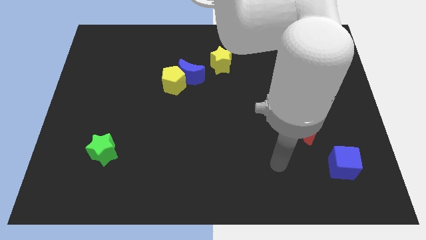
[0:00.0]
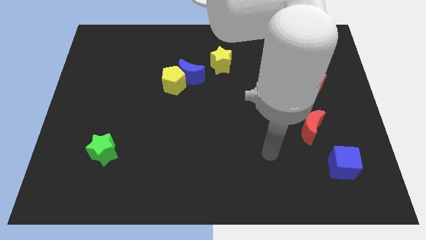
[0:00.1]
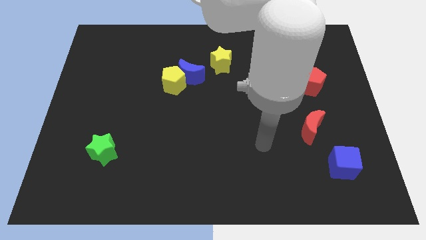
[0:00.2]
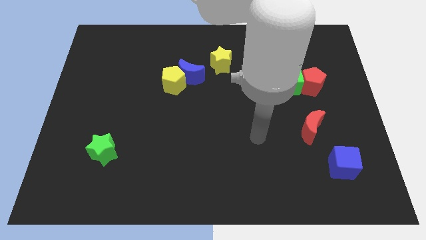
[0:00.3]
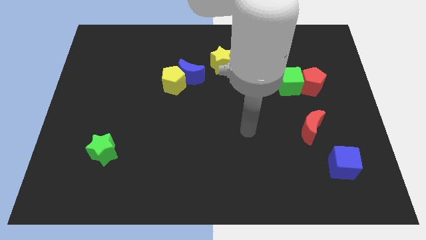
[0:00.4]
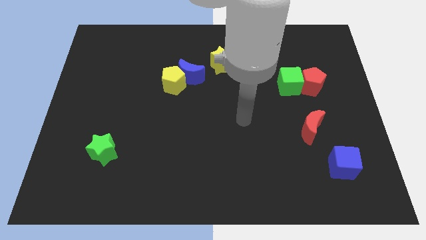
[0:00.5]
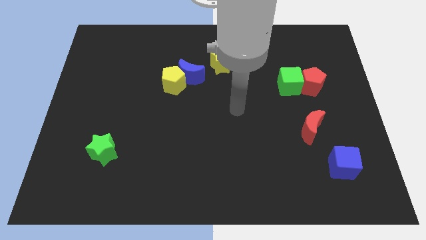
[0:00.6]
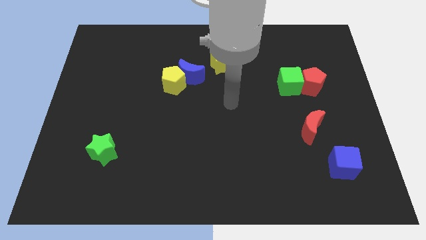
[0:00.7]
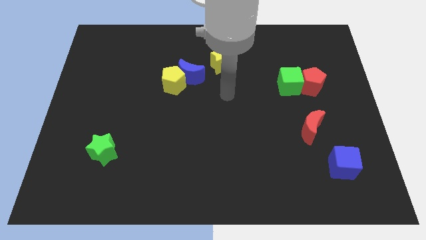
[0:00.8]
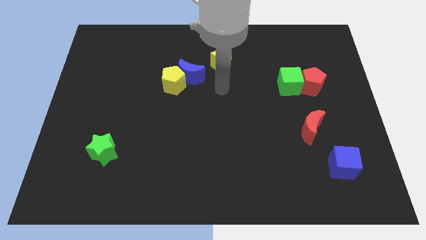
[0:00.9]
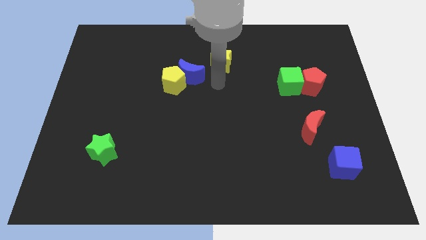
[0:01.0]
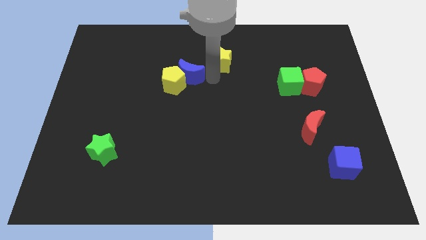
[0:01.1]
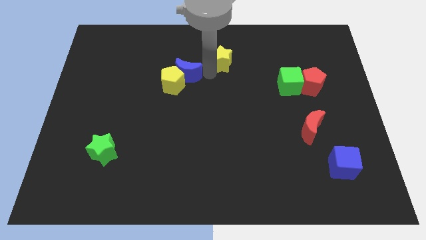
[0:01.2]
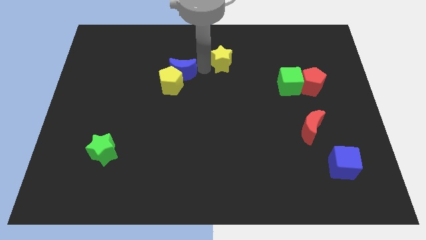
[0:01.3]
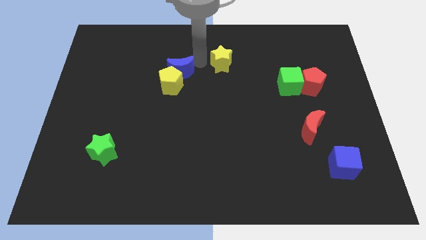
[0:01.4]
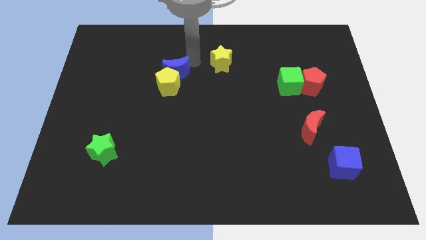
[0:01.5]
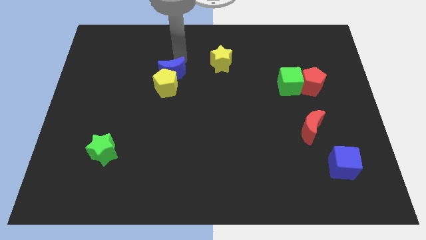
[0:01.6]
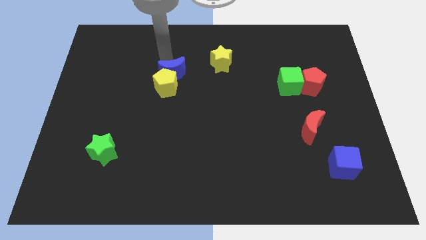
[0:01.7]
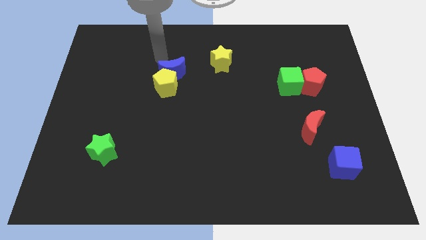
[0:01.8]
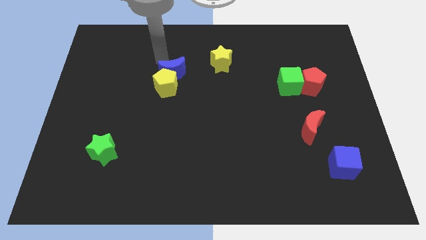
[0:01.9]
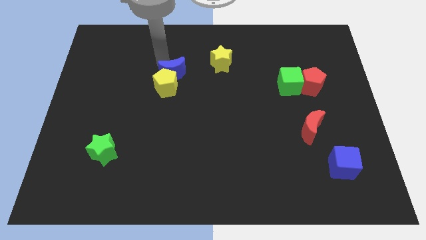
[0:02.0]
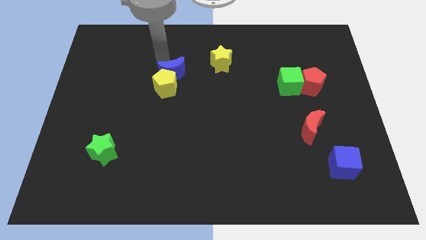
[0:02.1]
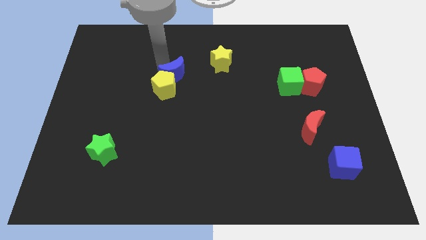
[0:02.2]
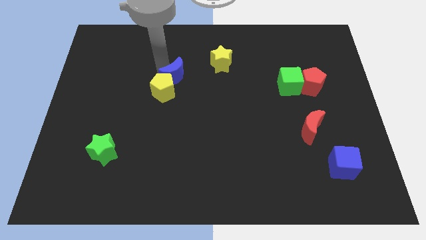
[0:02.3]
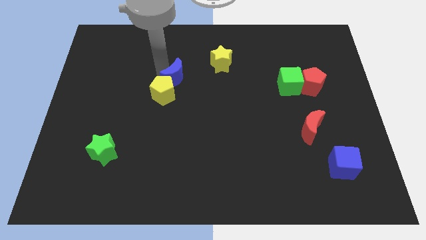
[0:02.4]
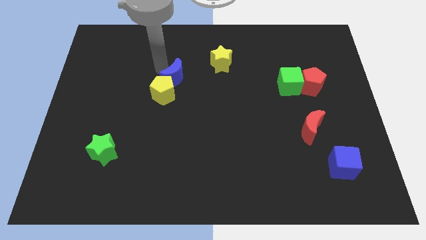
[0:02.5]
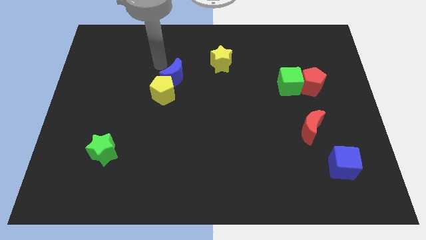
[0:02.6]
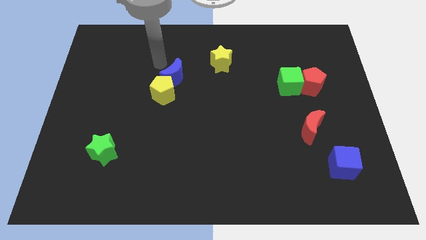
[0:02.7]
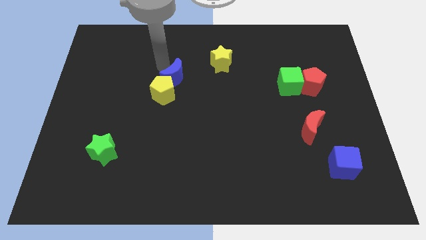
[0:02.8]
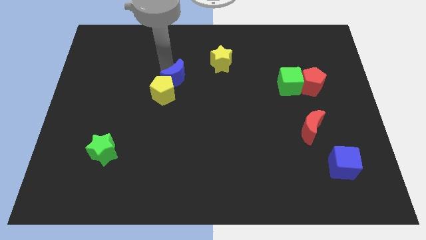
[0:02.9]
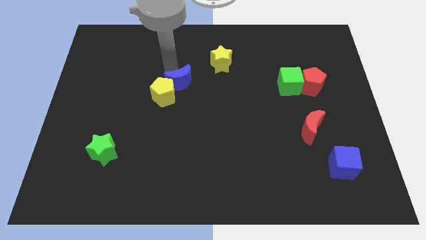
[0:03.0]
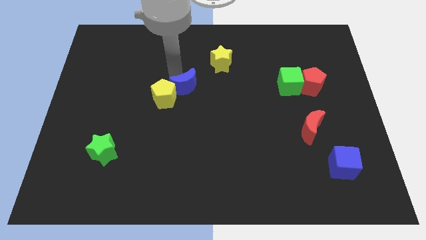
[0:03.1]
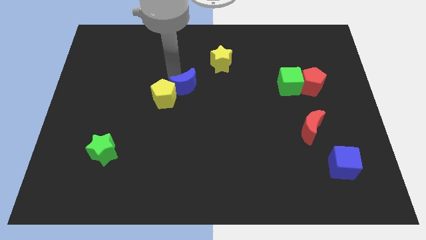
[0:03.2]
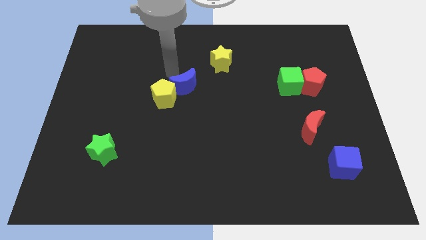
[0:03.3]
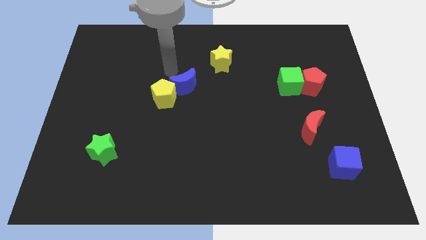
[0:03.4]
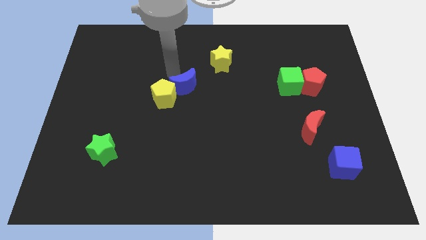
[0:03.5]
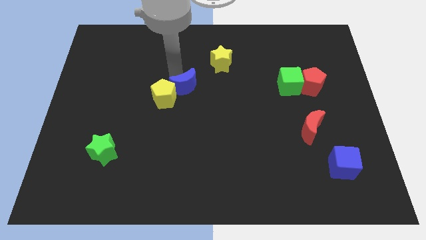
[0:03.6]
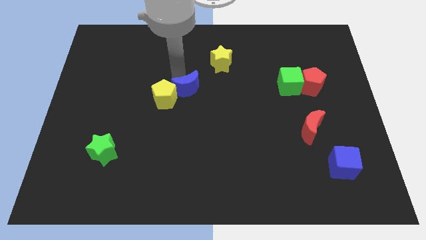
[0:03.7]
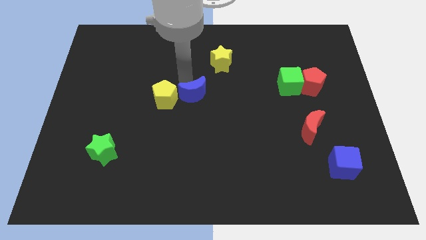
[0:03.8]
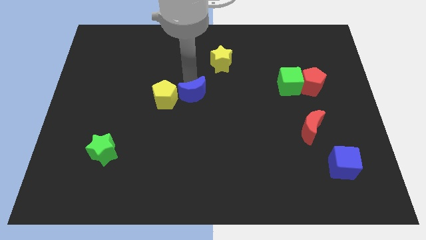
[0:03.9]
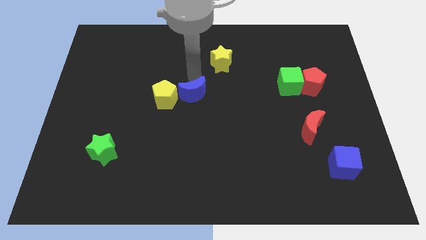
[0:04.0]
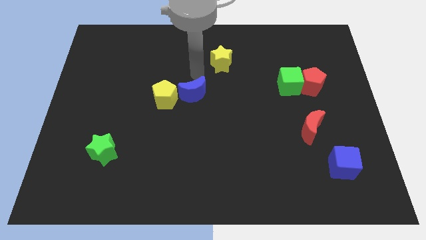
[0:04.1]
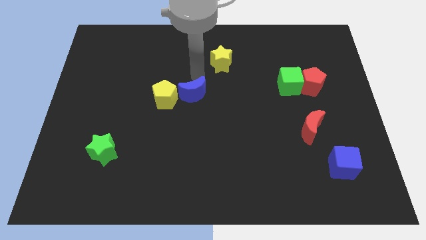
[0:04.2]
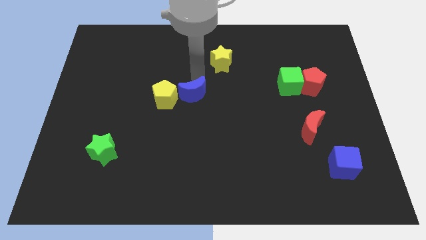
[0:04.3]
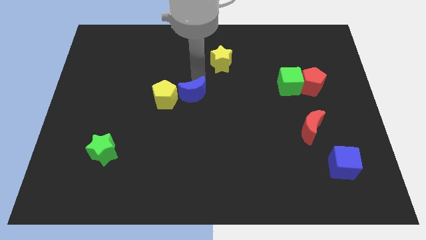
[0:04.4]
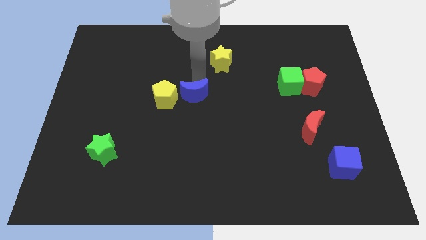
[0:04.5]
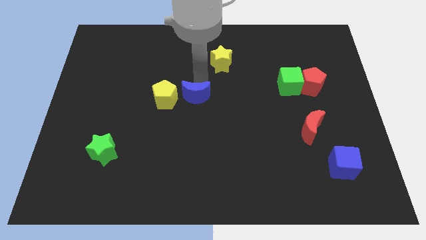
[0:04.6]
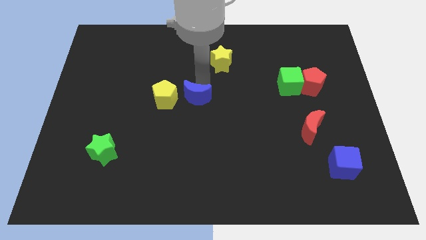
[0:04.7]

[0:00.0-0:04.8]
slide the blue moon down a little bit

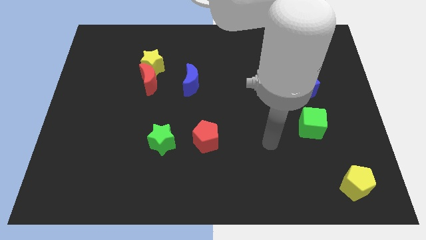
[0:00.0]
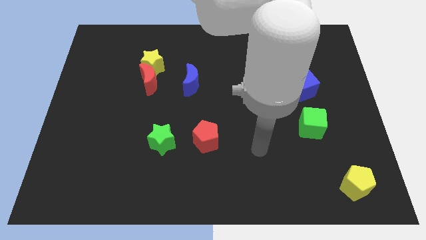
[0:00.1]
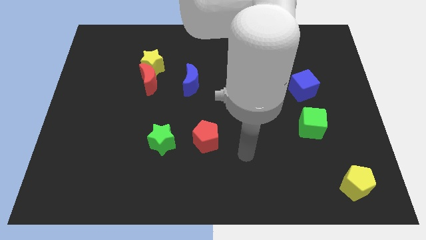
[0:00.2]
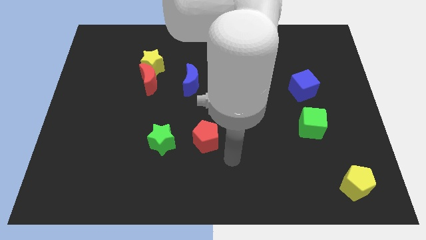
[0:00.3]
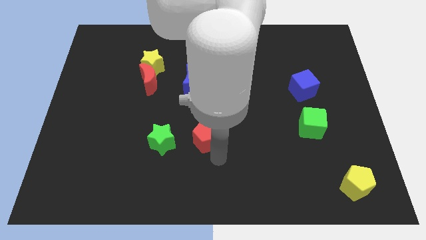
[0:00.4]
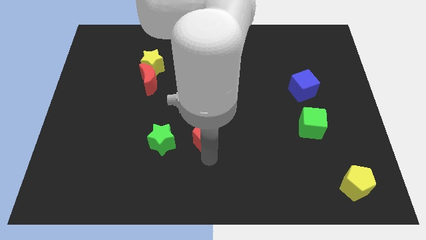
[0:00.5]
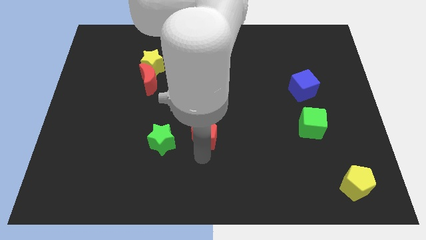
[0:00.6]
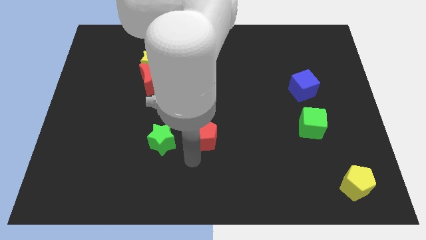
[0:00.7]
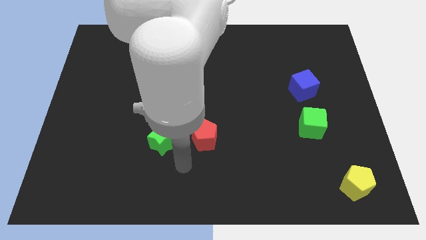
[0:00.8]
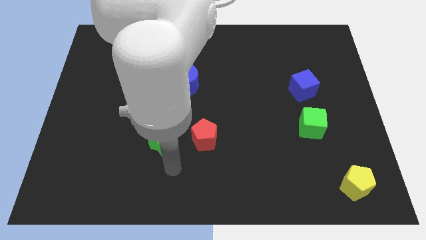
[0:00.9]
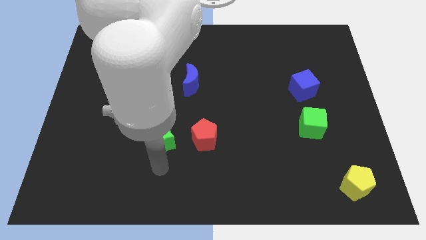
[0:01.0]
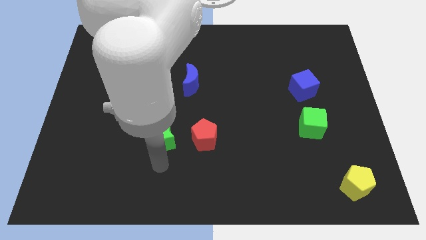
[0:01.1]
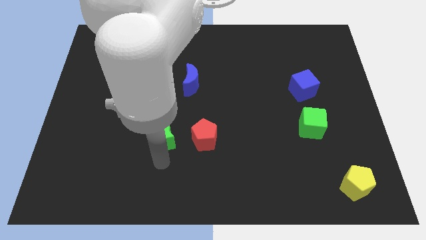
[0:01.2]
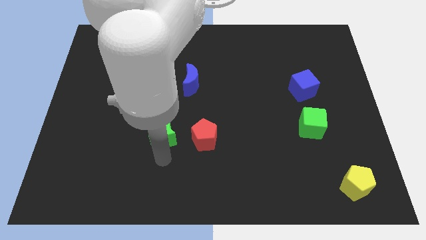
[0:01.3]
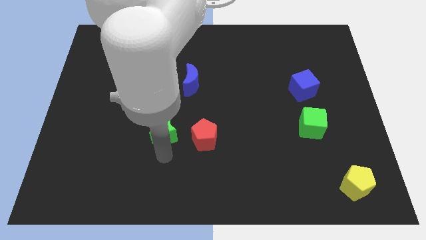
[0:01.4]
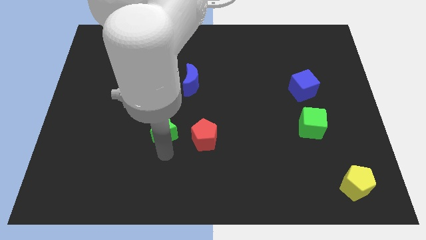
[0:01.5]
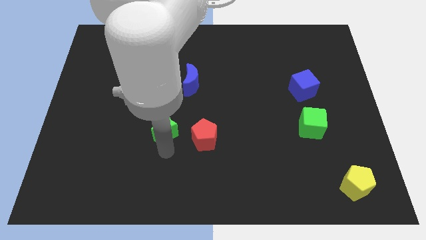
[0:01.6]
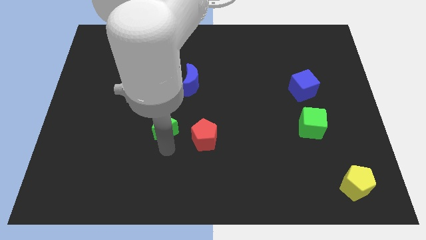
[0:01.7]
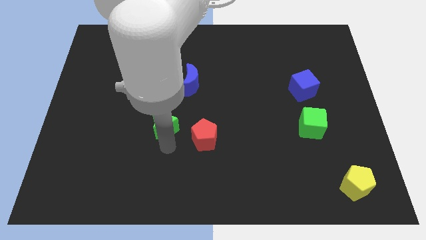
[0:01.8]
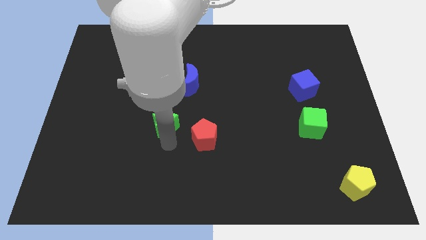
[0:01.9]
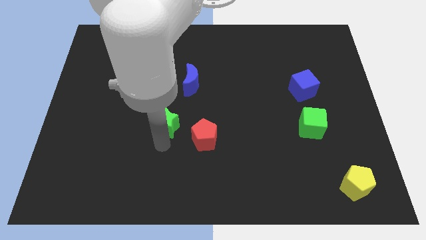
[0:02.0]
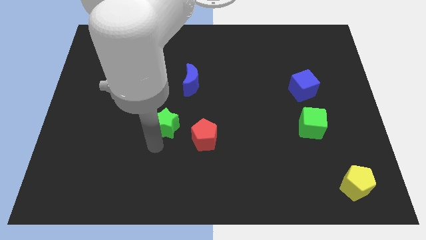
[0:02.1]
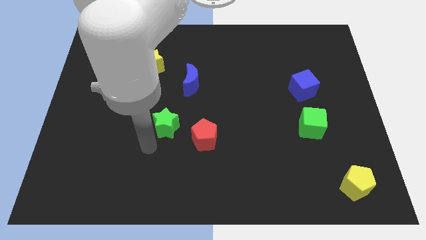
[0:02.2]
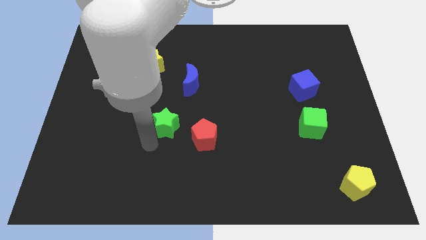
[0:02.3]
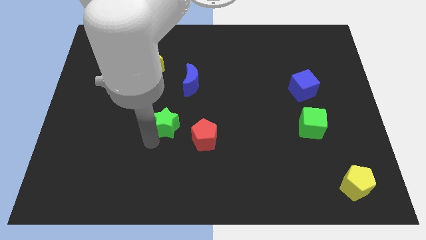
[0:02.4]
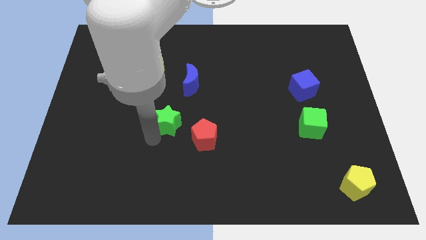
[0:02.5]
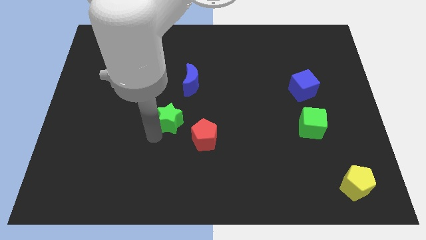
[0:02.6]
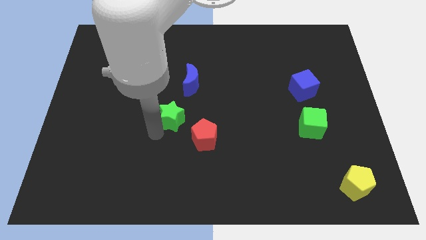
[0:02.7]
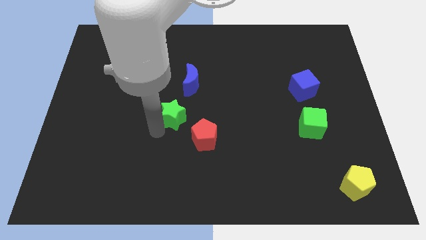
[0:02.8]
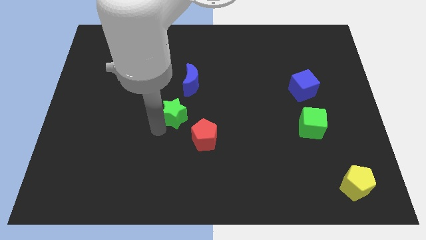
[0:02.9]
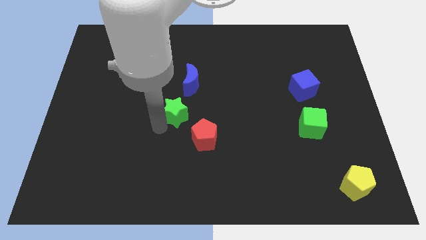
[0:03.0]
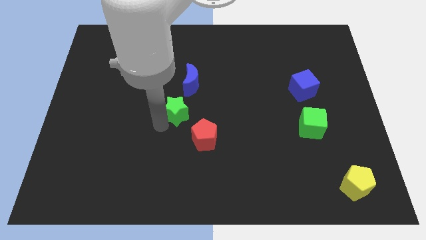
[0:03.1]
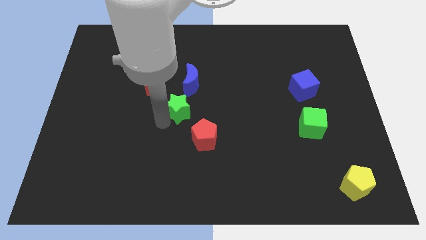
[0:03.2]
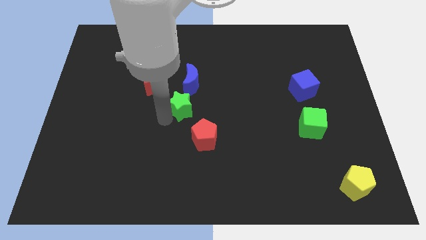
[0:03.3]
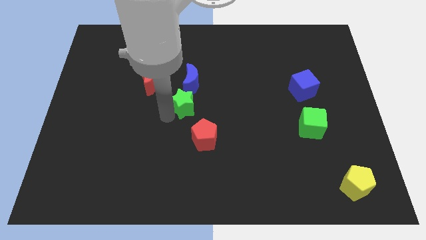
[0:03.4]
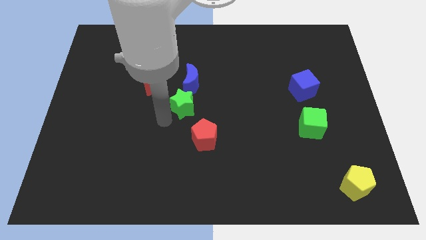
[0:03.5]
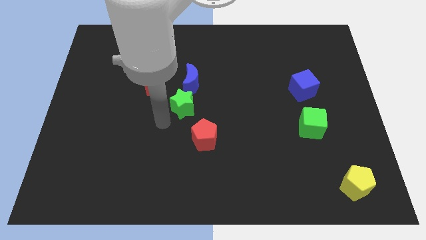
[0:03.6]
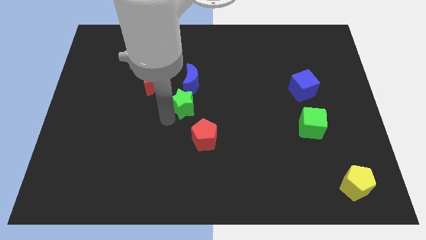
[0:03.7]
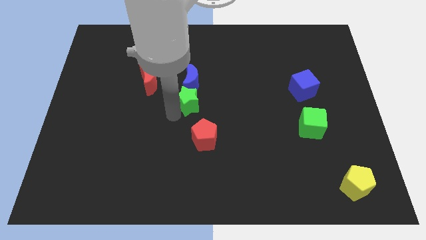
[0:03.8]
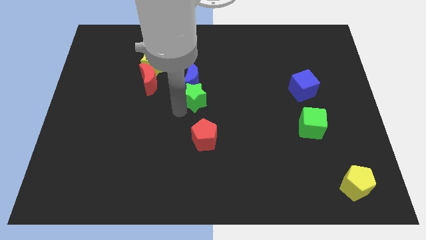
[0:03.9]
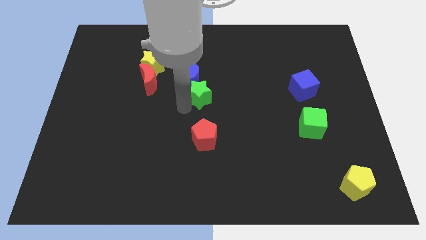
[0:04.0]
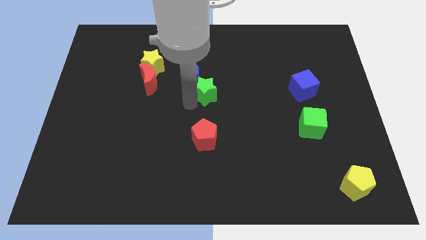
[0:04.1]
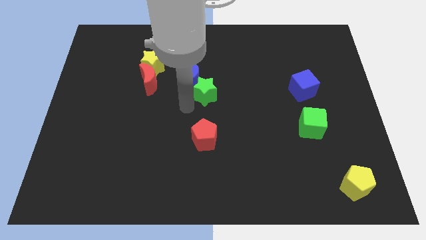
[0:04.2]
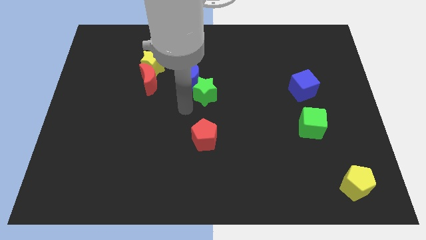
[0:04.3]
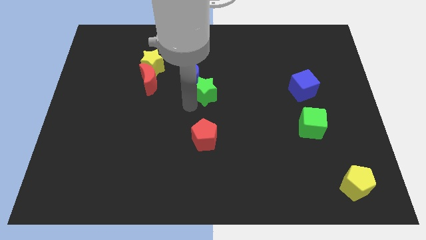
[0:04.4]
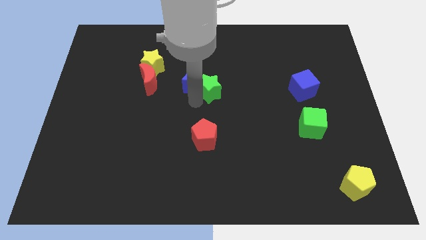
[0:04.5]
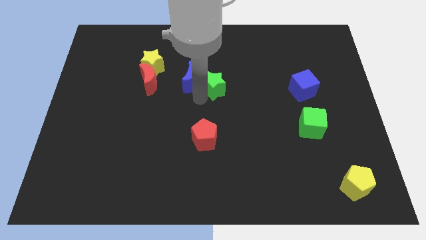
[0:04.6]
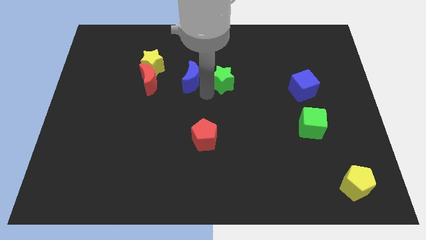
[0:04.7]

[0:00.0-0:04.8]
move the green star diagonally up and to the right
